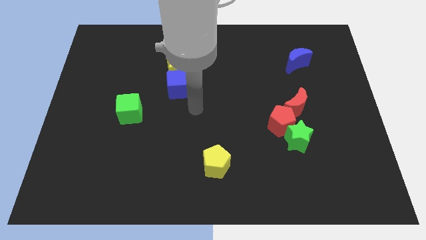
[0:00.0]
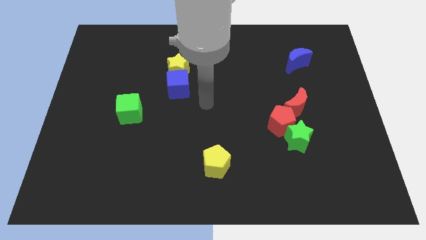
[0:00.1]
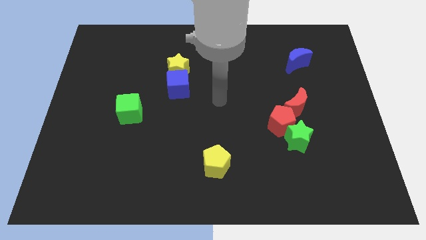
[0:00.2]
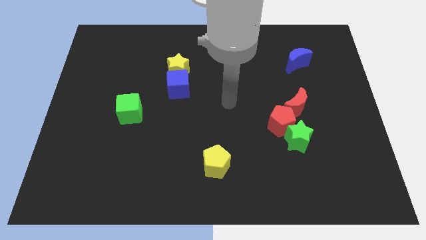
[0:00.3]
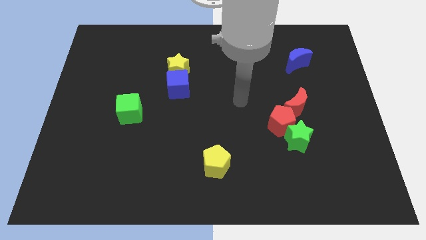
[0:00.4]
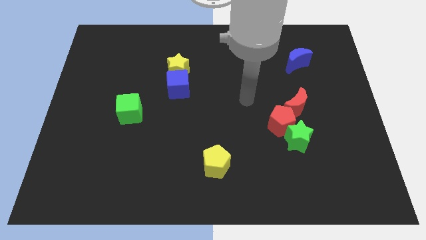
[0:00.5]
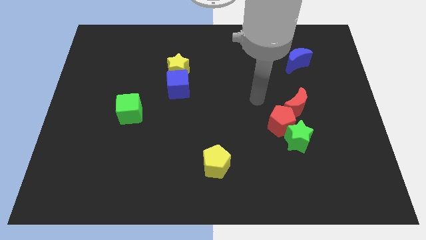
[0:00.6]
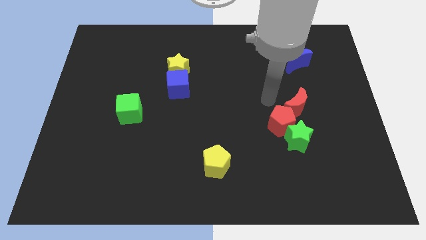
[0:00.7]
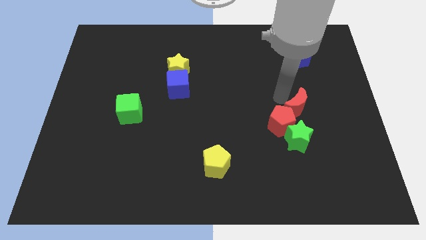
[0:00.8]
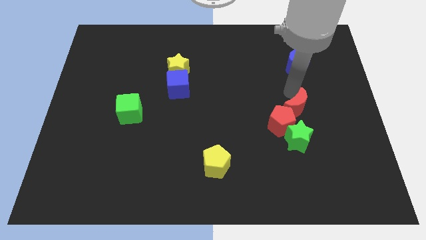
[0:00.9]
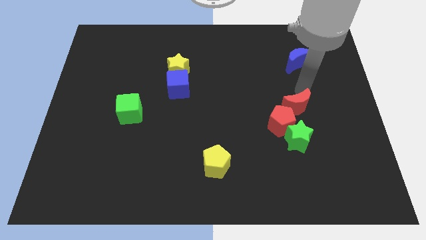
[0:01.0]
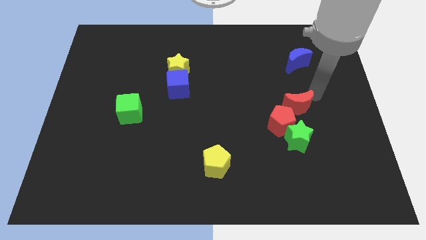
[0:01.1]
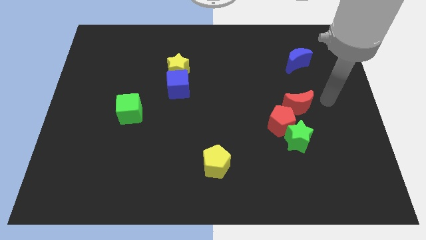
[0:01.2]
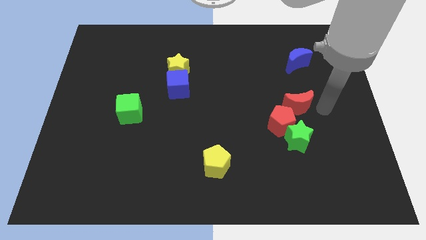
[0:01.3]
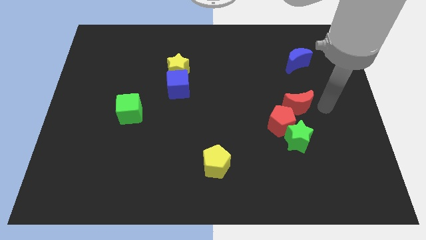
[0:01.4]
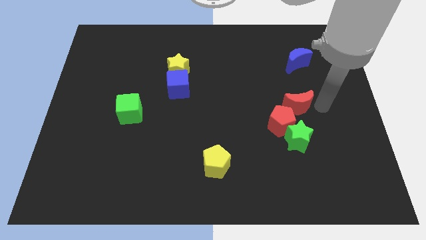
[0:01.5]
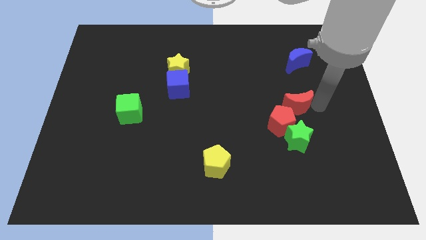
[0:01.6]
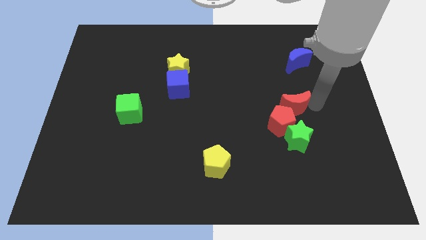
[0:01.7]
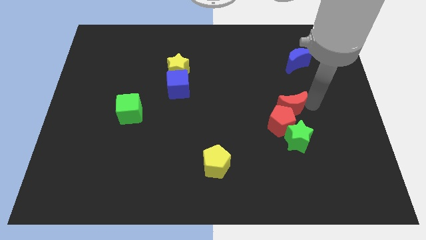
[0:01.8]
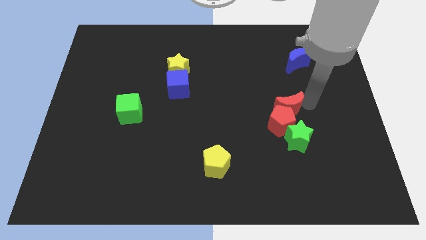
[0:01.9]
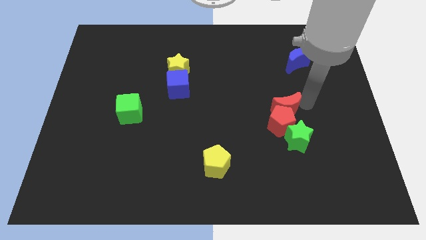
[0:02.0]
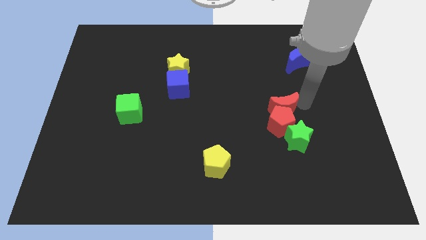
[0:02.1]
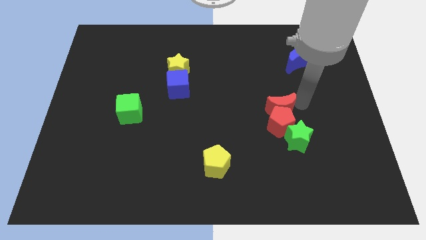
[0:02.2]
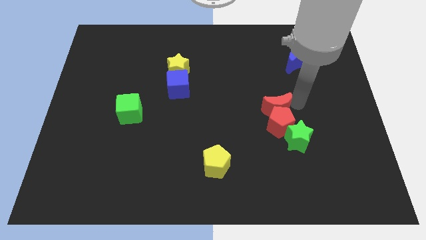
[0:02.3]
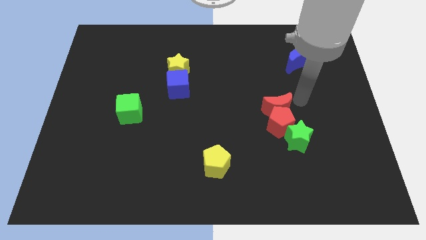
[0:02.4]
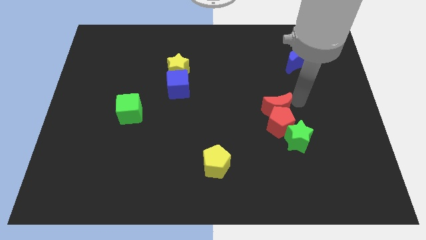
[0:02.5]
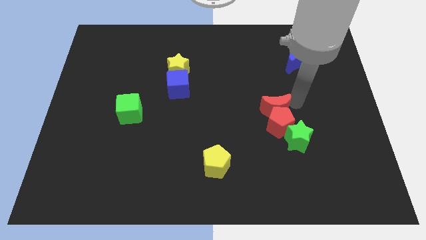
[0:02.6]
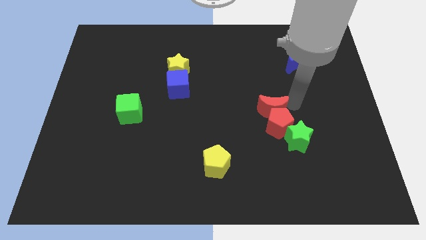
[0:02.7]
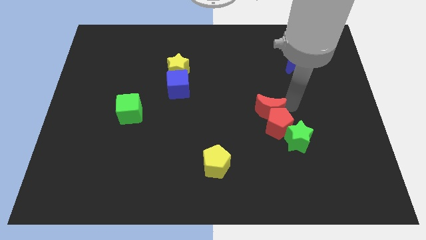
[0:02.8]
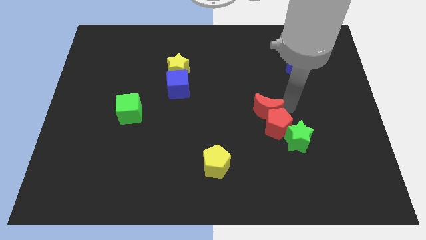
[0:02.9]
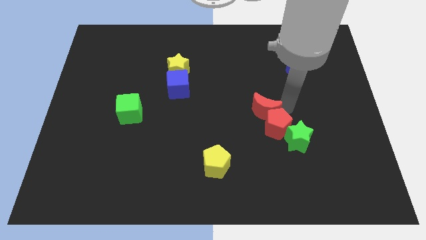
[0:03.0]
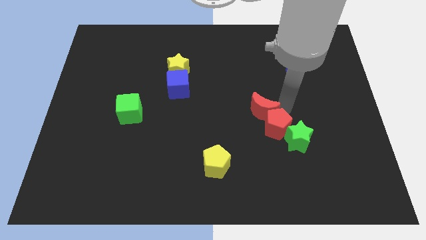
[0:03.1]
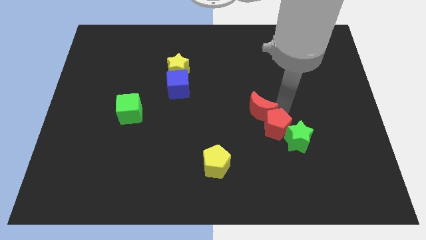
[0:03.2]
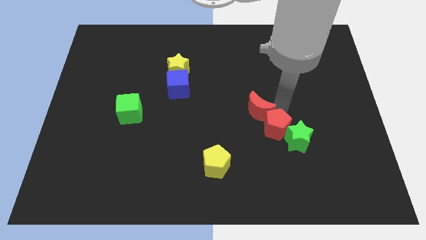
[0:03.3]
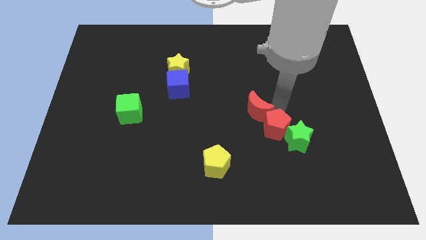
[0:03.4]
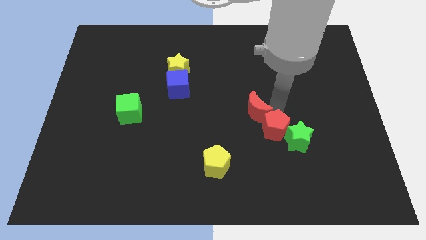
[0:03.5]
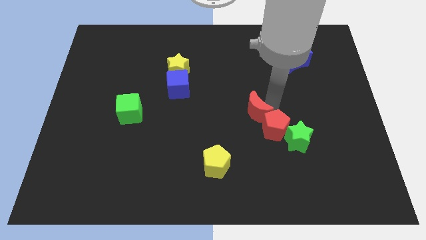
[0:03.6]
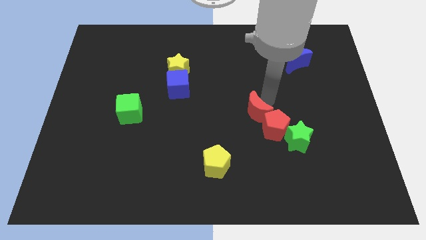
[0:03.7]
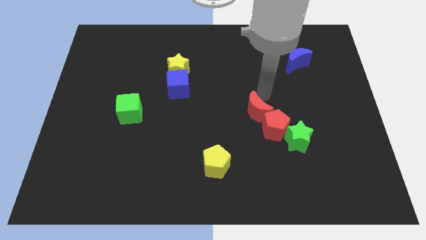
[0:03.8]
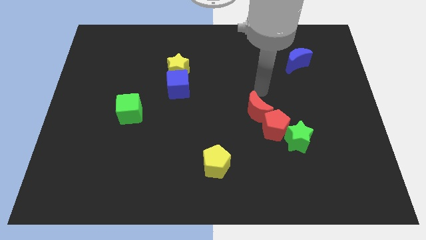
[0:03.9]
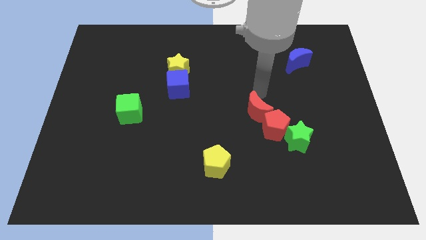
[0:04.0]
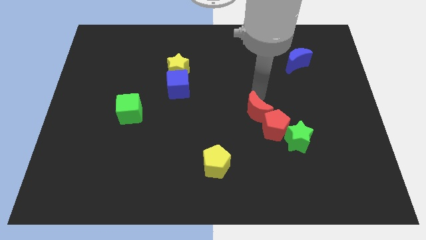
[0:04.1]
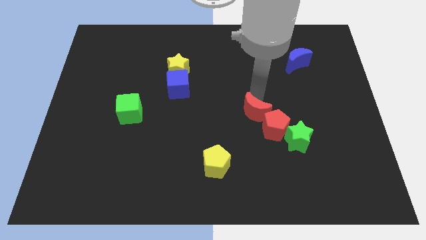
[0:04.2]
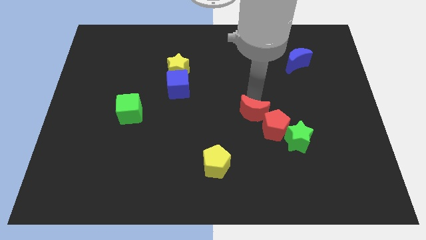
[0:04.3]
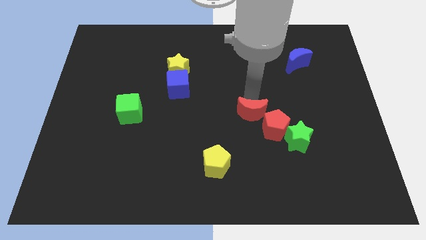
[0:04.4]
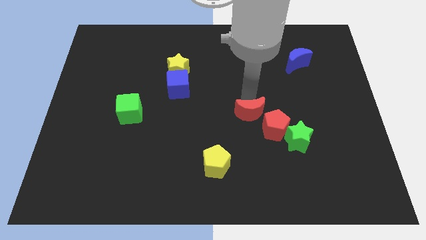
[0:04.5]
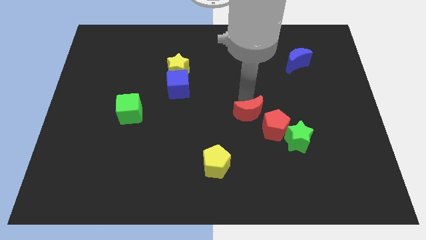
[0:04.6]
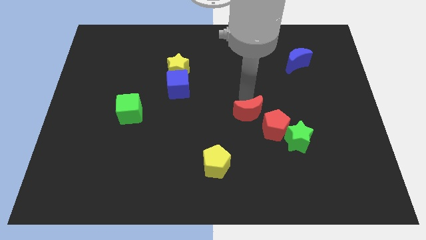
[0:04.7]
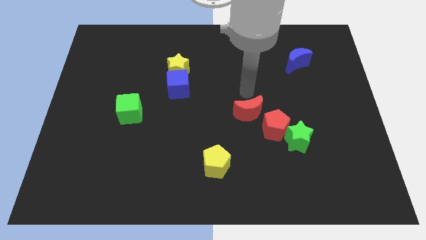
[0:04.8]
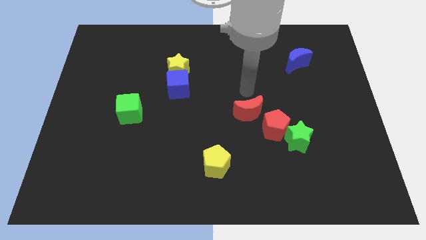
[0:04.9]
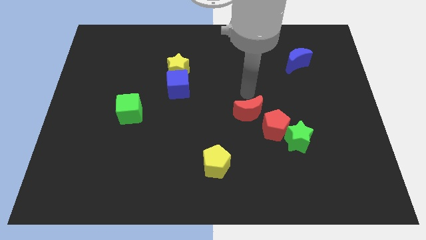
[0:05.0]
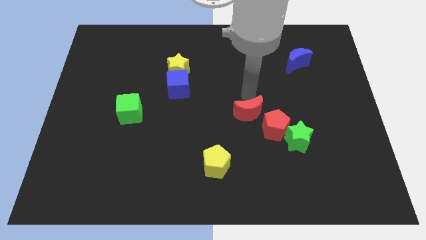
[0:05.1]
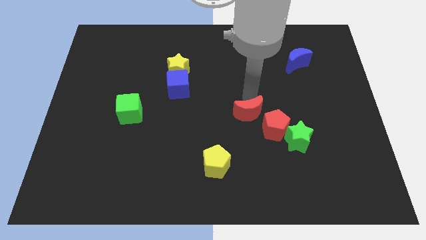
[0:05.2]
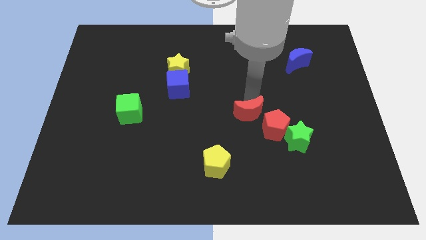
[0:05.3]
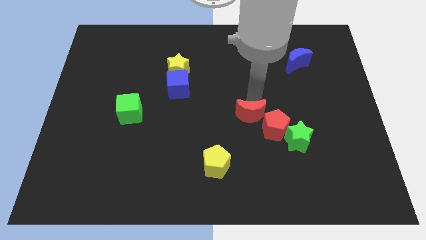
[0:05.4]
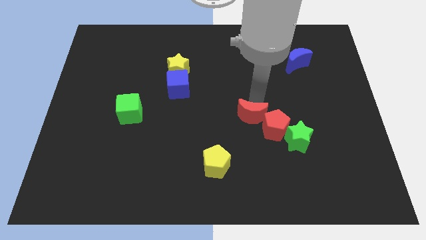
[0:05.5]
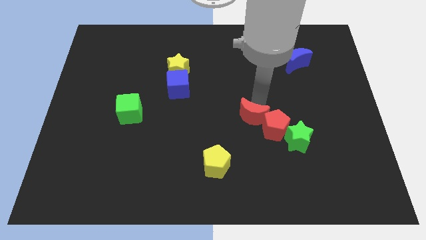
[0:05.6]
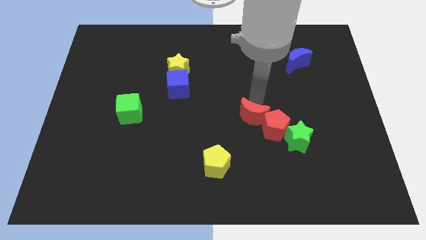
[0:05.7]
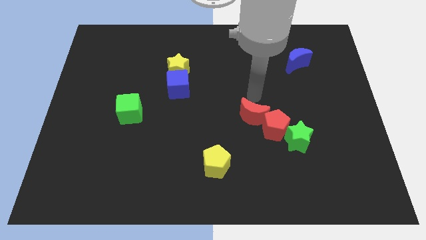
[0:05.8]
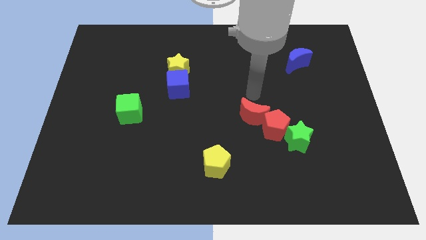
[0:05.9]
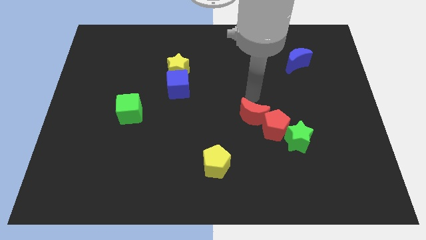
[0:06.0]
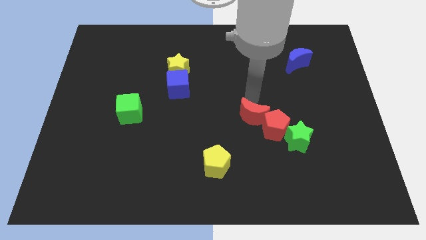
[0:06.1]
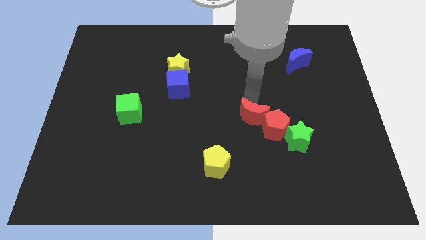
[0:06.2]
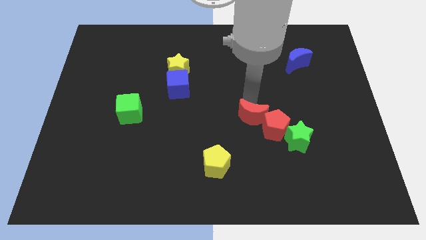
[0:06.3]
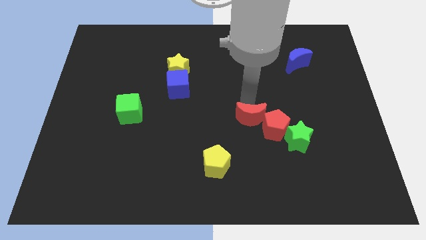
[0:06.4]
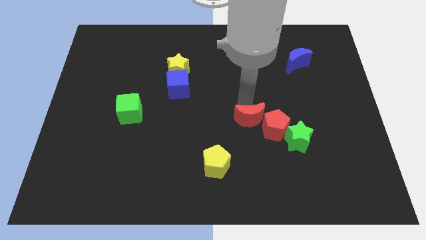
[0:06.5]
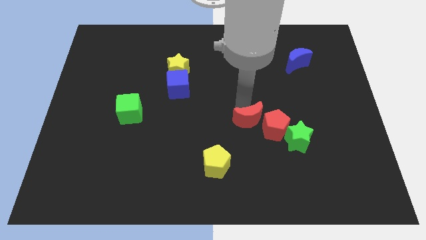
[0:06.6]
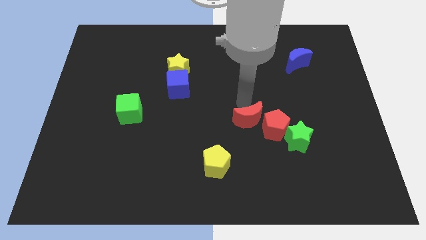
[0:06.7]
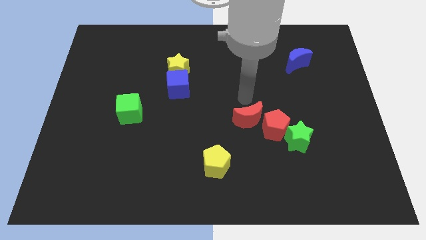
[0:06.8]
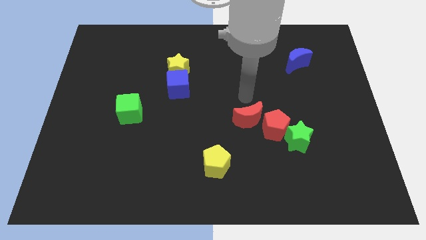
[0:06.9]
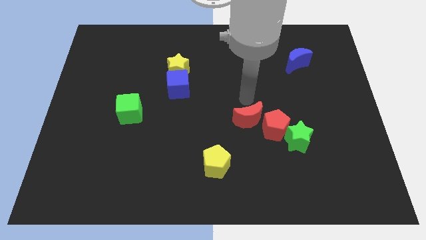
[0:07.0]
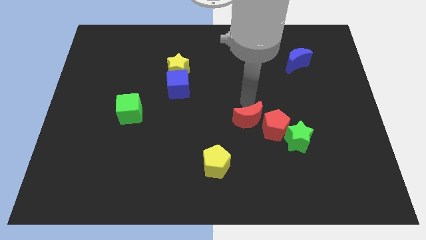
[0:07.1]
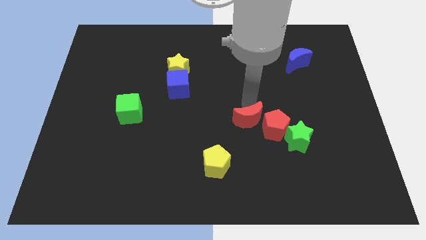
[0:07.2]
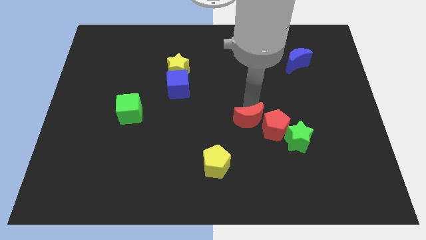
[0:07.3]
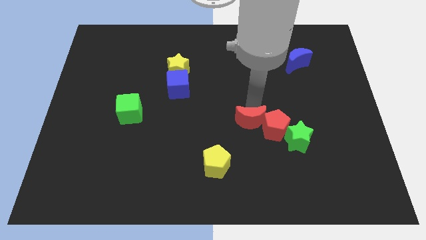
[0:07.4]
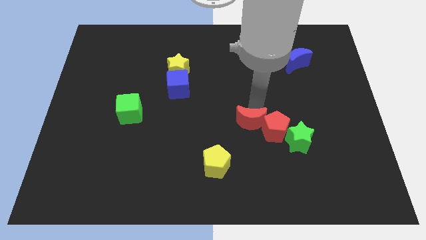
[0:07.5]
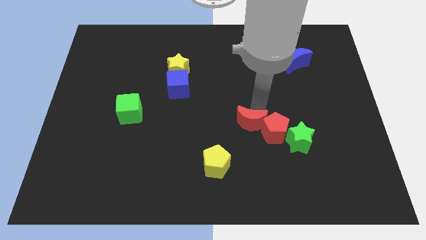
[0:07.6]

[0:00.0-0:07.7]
put the red moon to the left side of the green star
